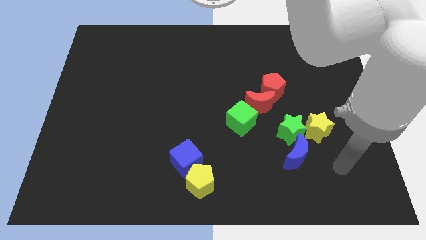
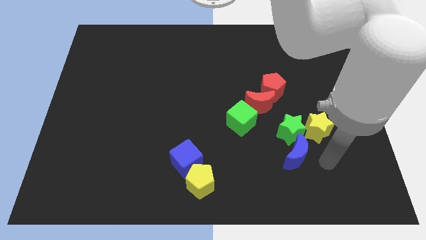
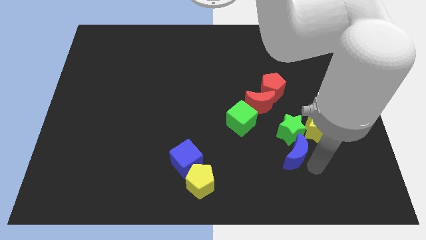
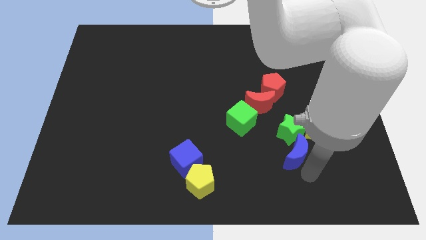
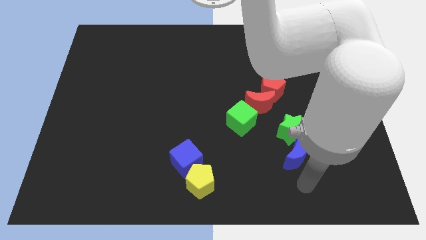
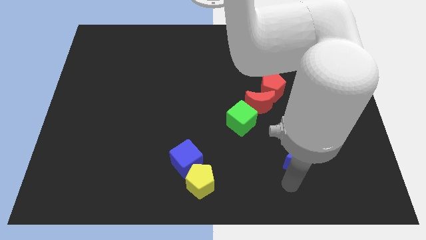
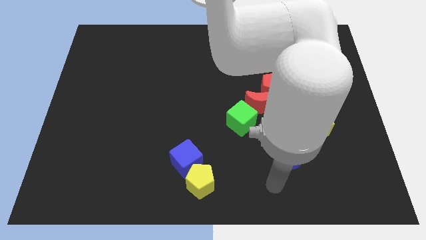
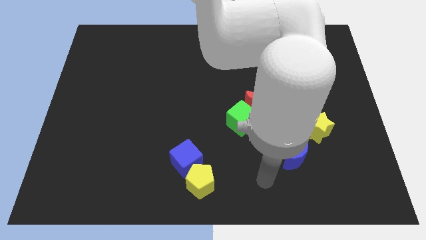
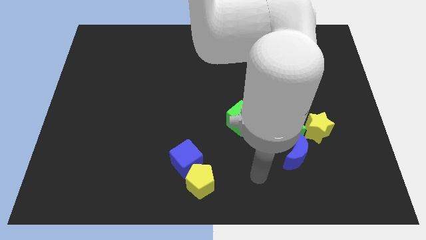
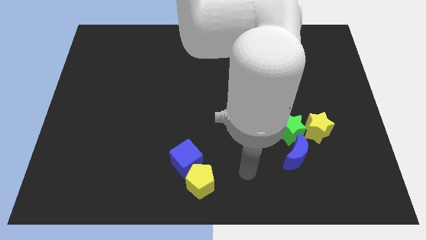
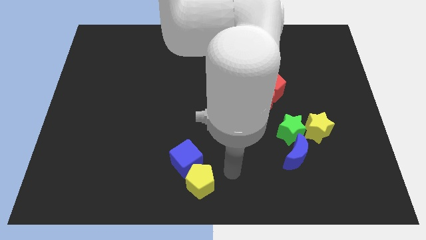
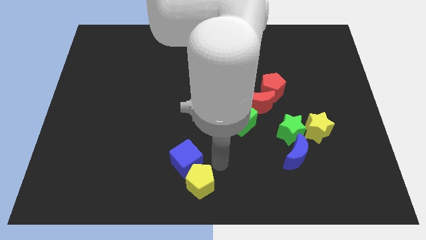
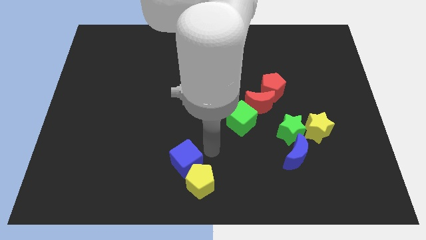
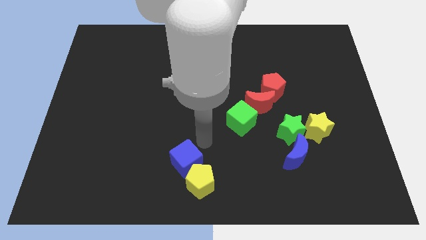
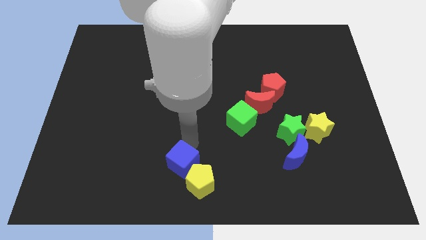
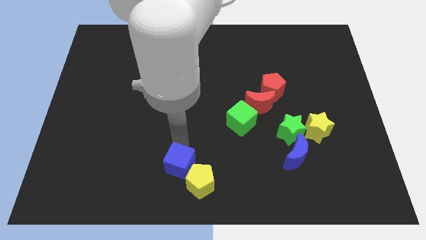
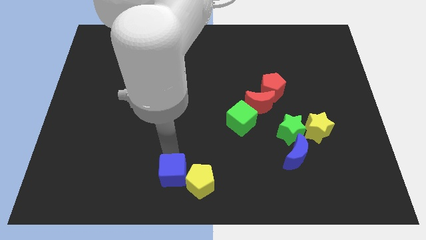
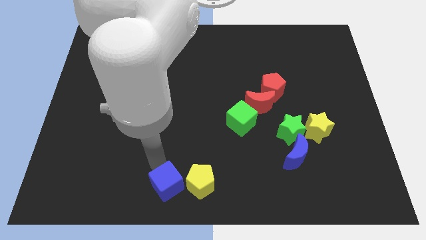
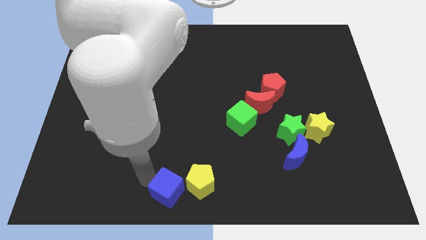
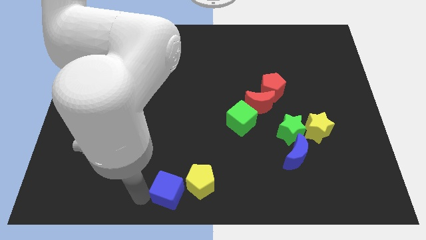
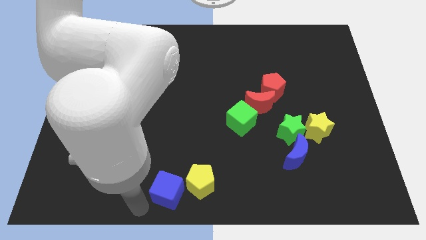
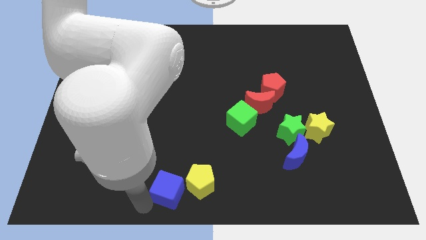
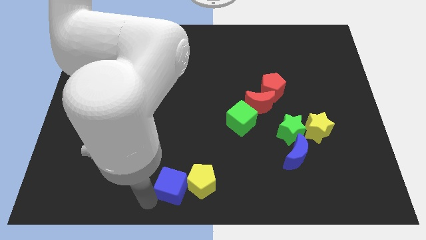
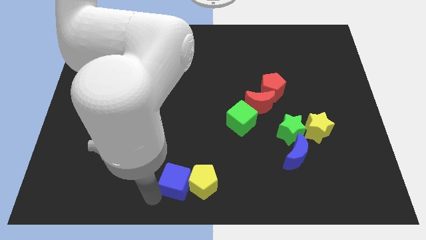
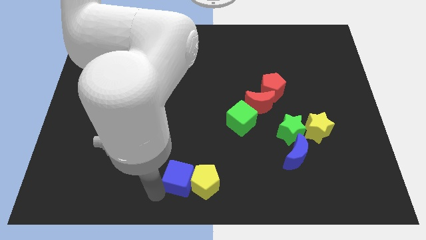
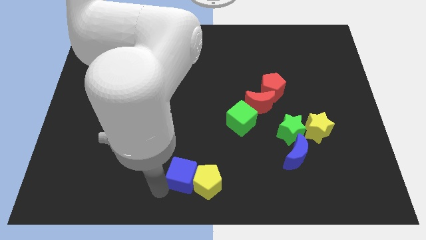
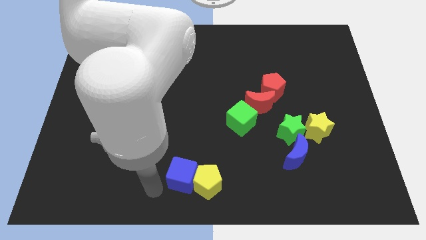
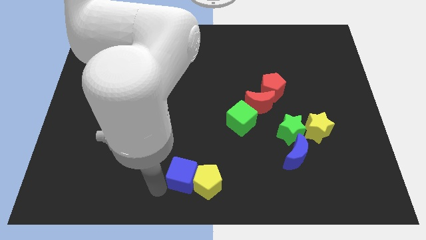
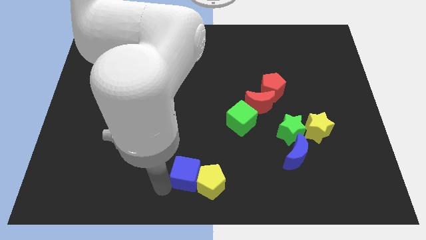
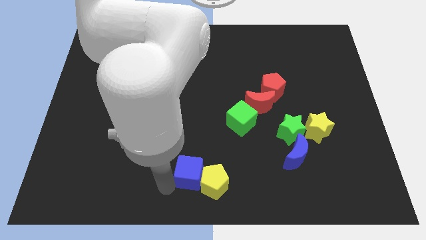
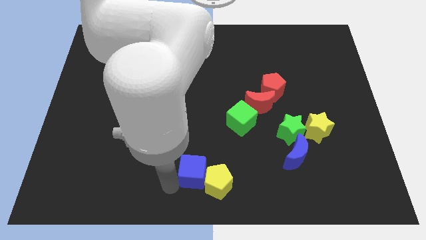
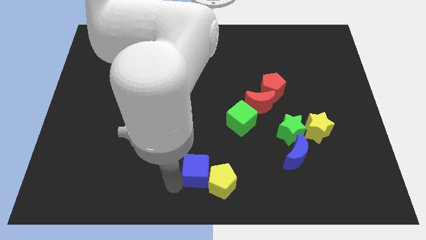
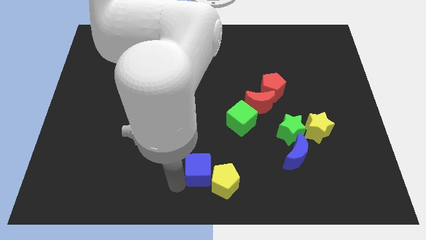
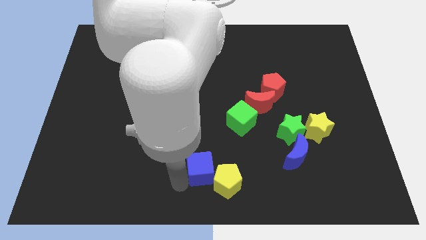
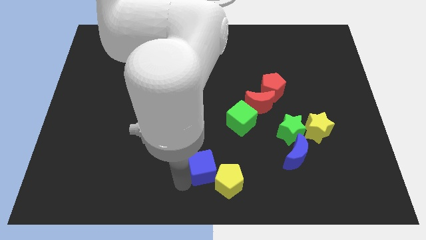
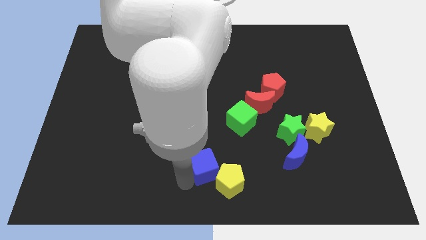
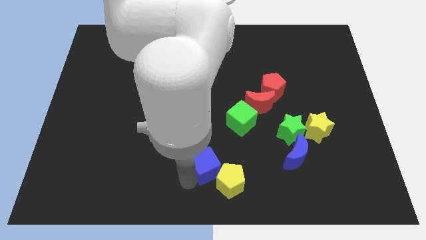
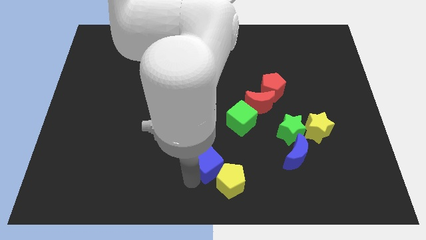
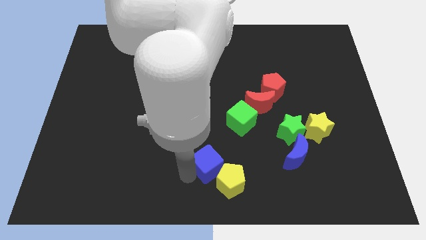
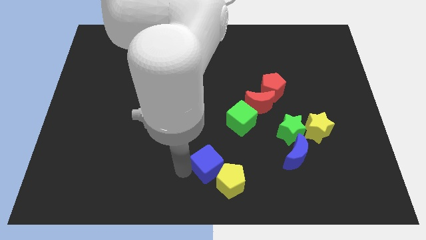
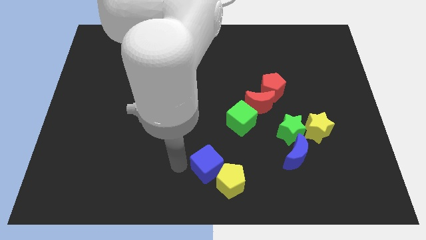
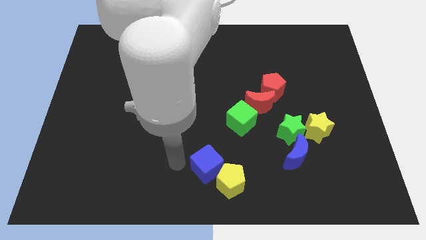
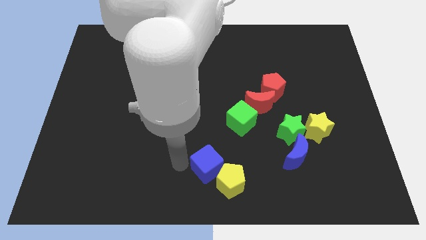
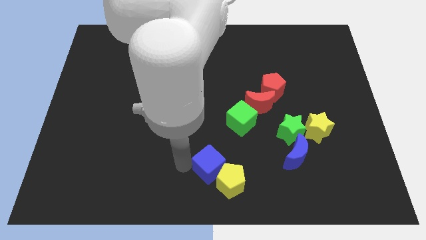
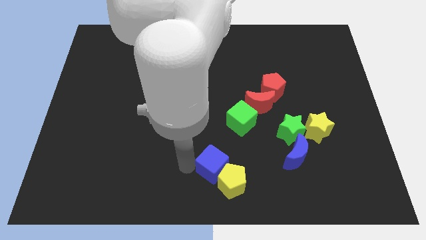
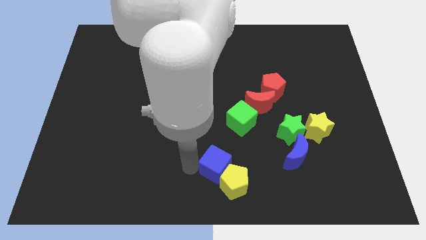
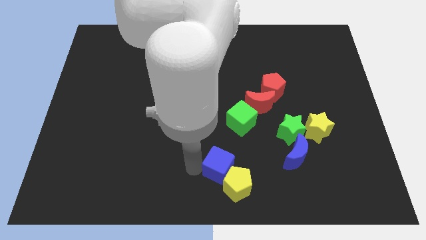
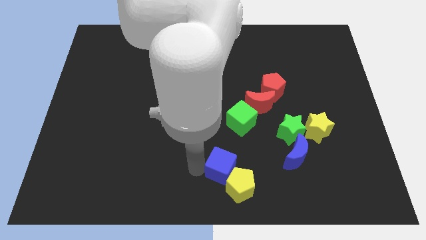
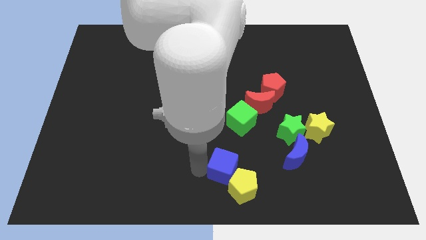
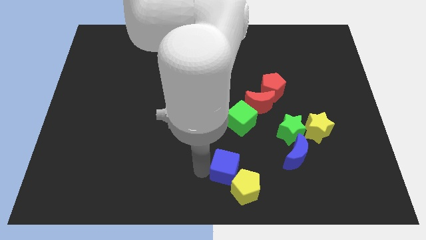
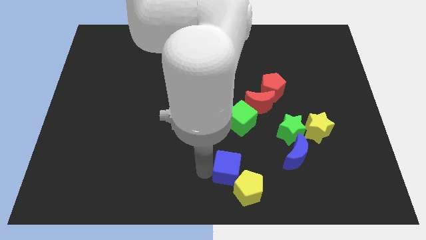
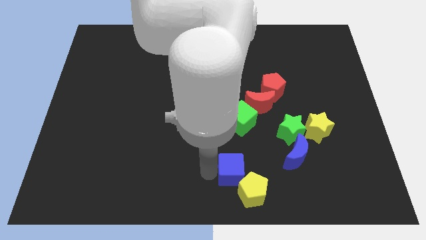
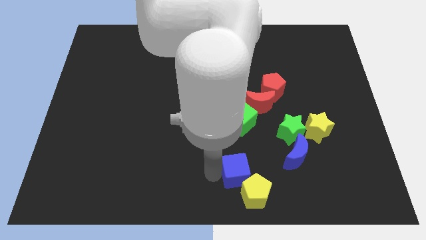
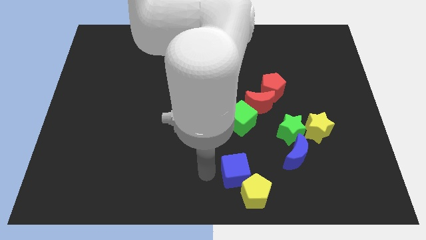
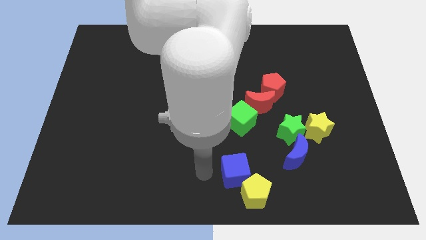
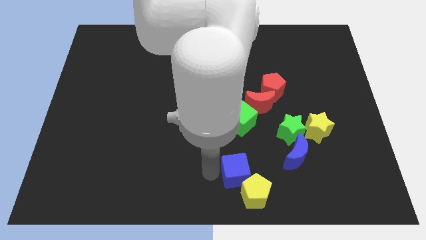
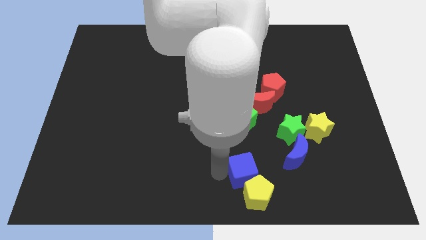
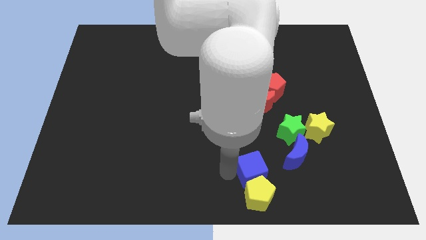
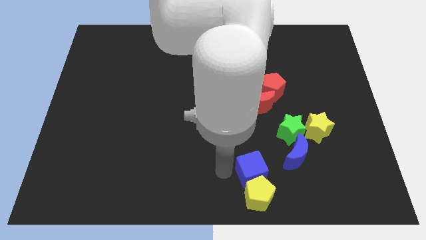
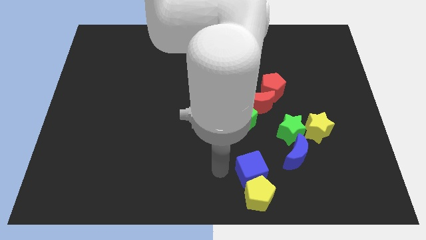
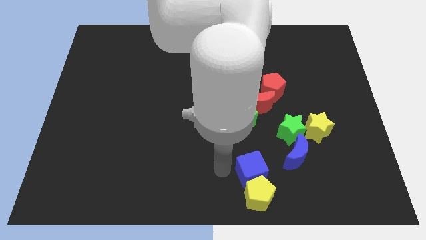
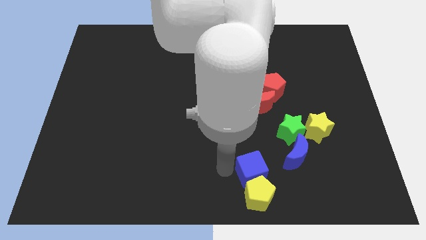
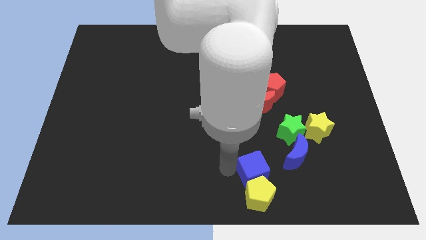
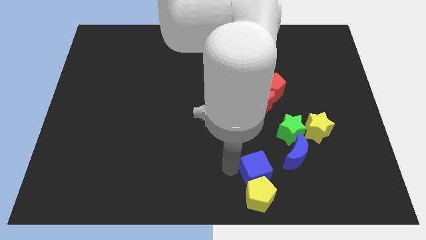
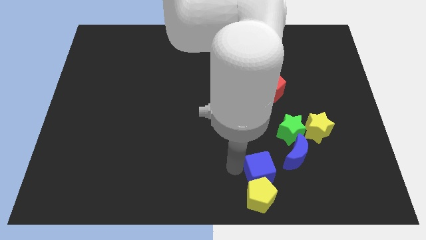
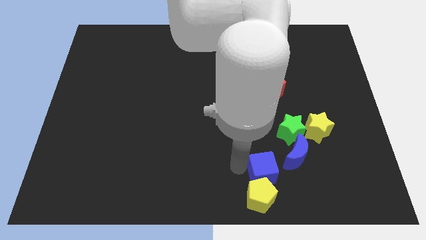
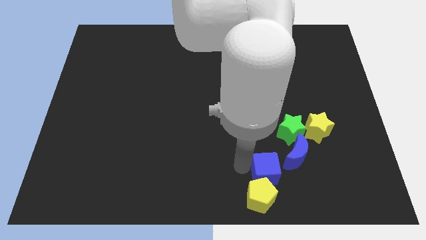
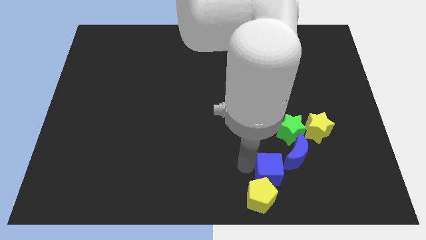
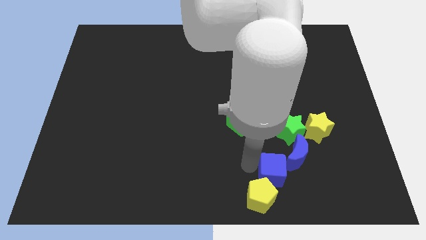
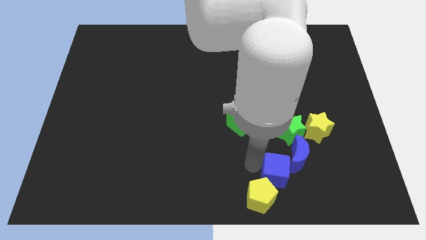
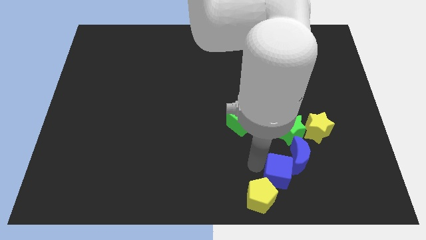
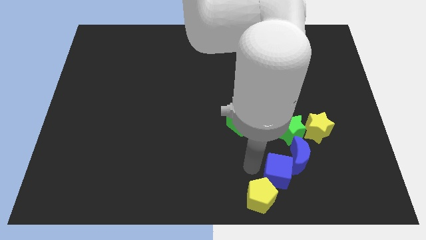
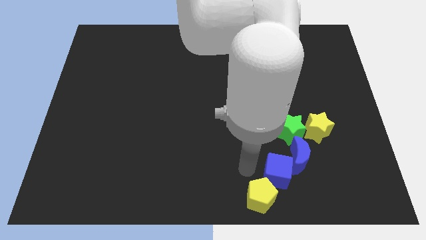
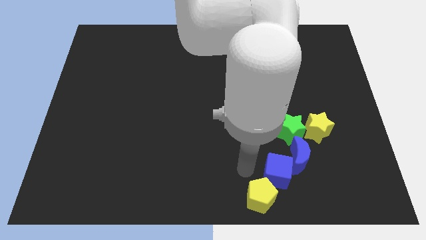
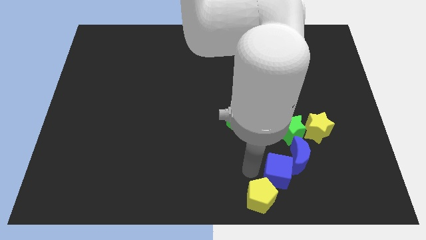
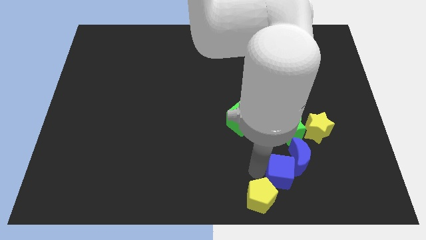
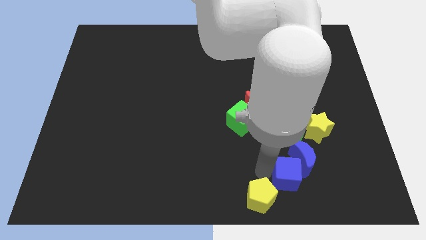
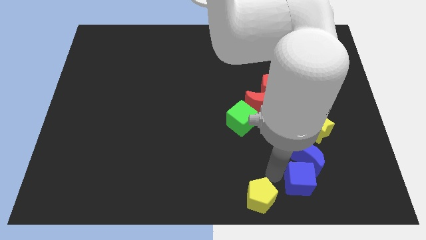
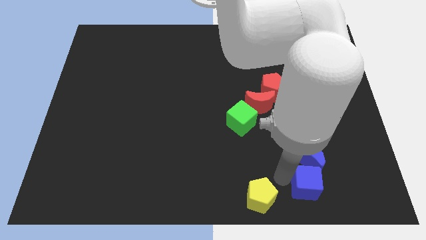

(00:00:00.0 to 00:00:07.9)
move the blue cube below the yellow star

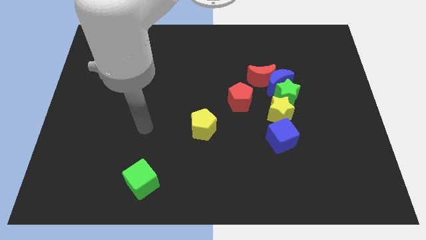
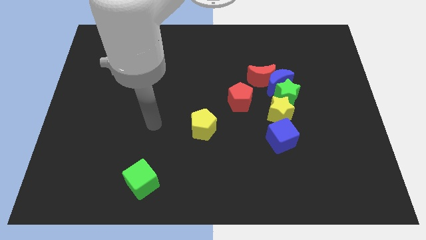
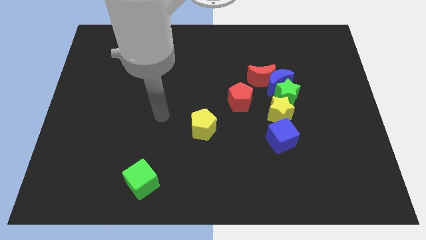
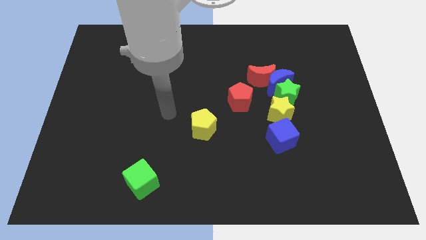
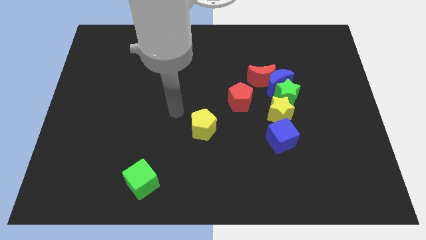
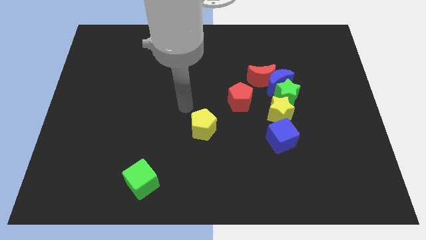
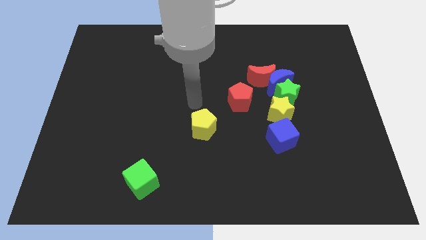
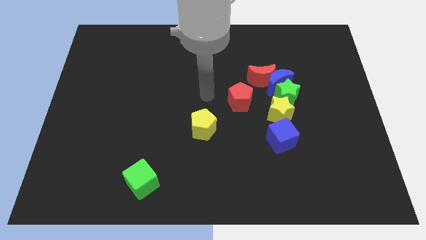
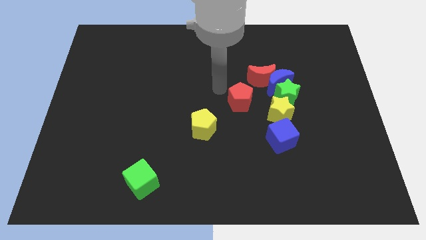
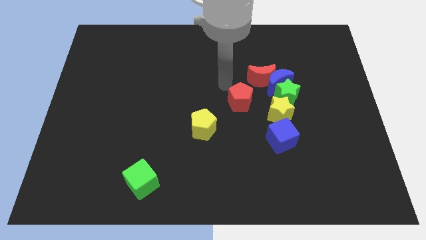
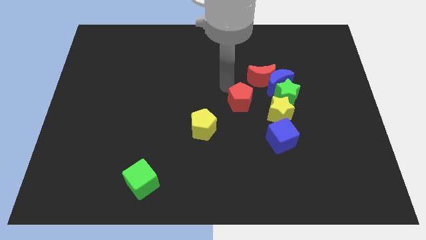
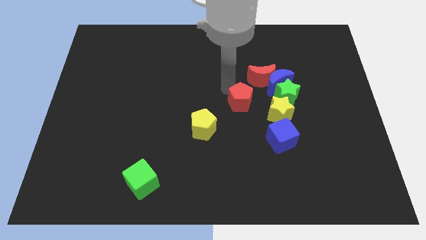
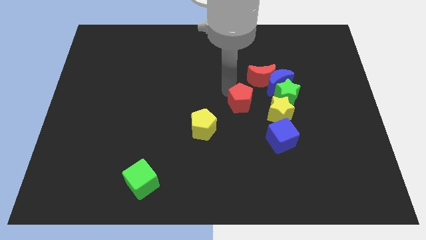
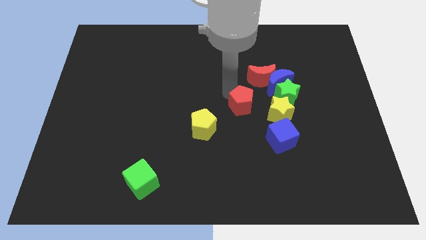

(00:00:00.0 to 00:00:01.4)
push the red pentagon to the top left side of the blue cube
